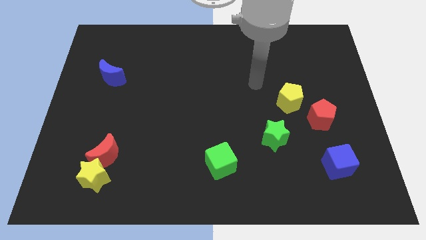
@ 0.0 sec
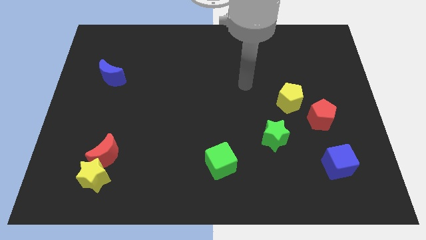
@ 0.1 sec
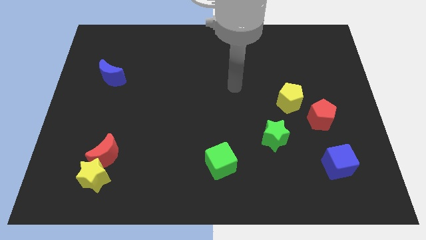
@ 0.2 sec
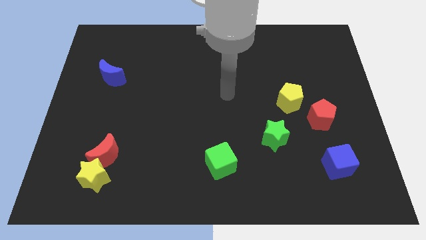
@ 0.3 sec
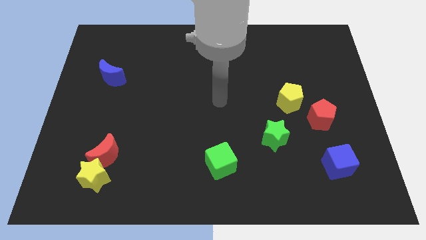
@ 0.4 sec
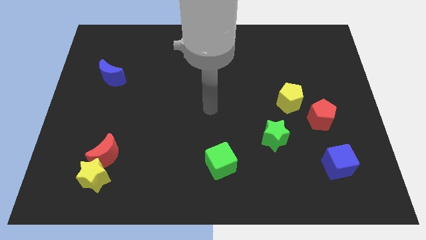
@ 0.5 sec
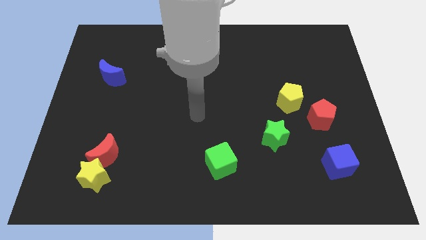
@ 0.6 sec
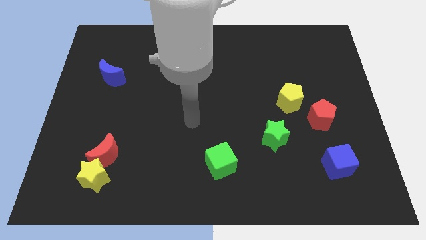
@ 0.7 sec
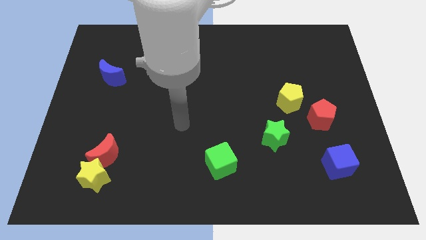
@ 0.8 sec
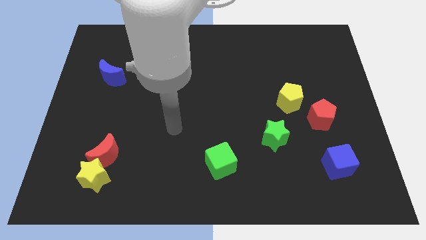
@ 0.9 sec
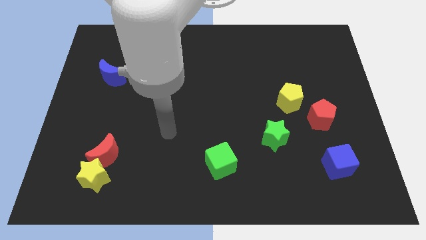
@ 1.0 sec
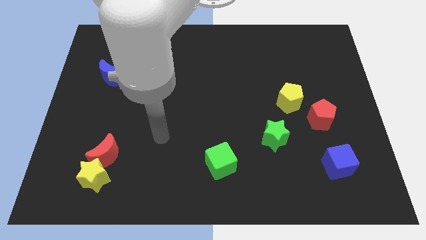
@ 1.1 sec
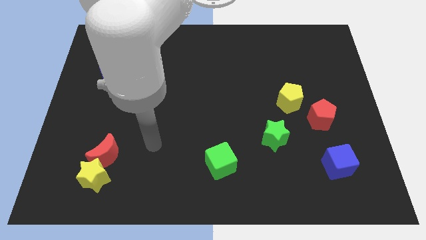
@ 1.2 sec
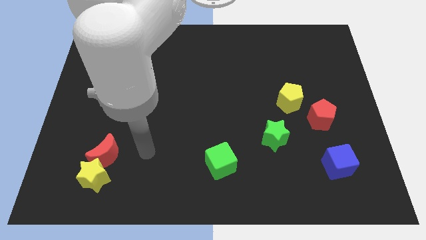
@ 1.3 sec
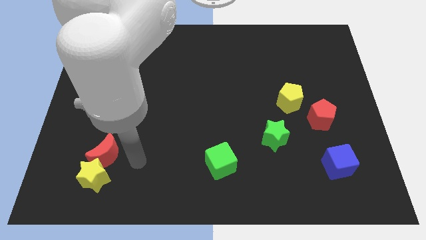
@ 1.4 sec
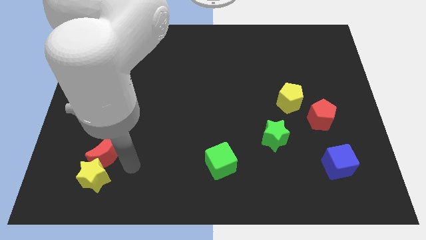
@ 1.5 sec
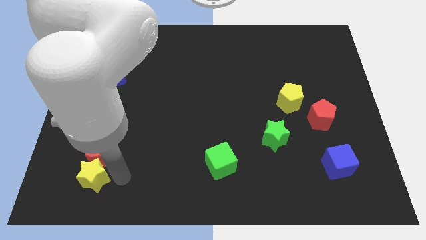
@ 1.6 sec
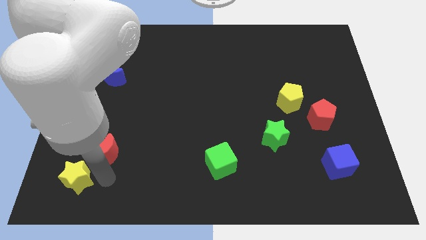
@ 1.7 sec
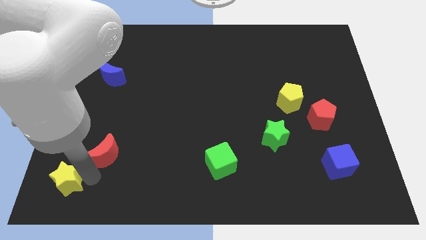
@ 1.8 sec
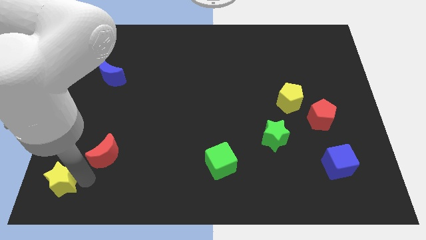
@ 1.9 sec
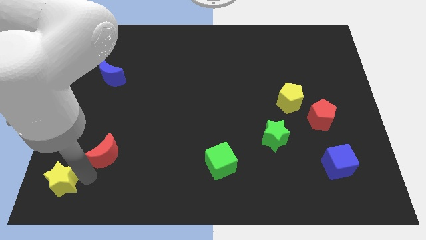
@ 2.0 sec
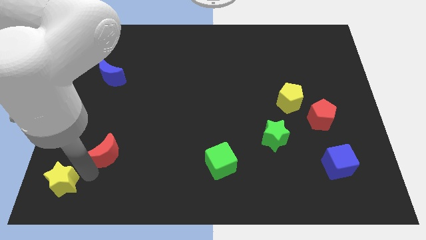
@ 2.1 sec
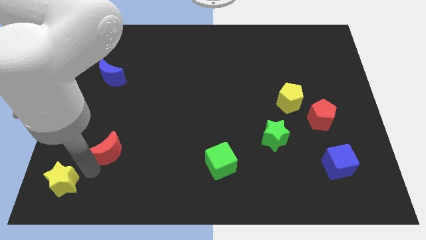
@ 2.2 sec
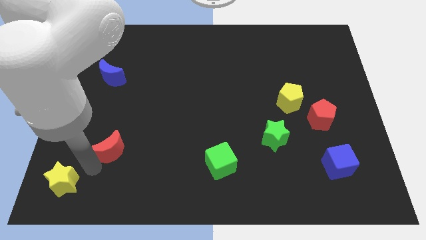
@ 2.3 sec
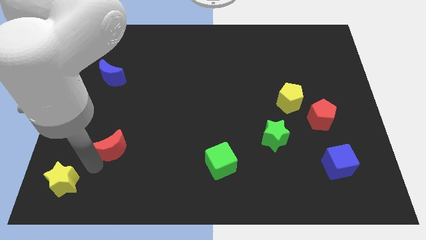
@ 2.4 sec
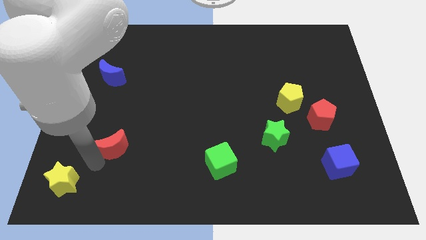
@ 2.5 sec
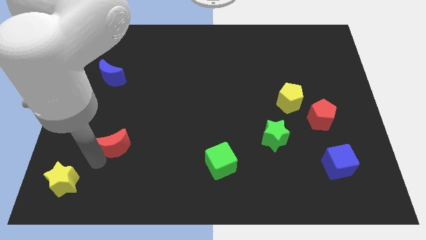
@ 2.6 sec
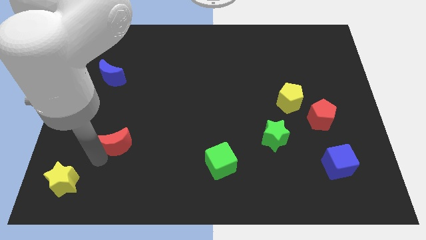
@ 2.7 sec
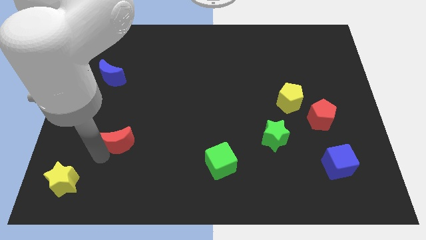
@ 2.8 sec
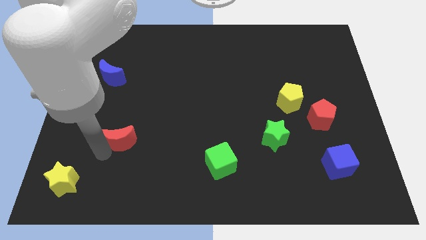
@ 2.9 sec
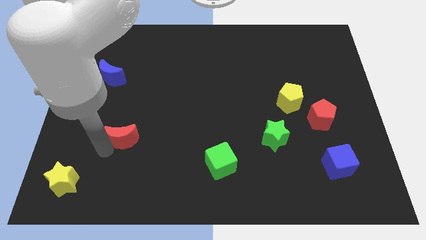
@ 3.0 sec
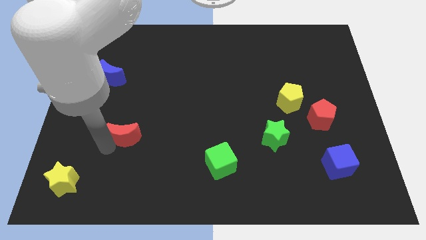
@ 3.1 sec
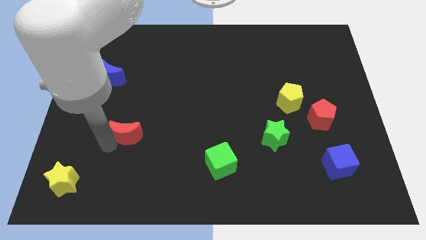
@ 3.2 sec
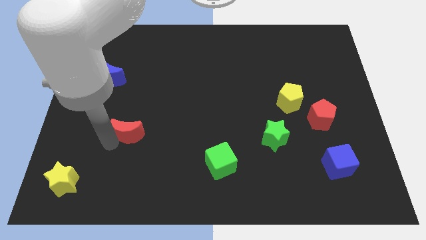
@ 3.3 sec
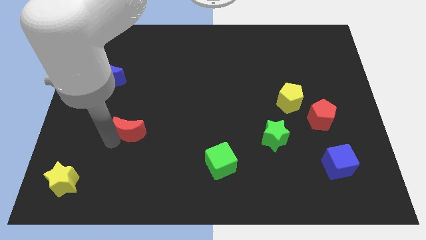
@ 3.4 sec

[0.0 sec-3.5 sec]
slide the red moon slightly diagonally upwards and to the right

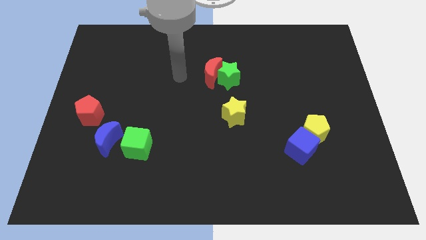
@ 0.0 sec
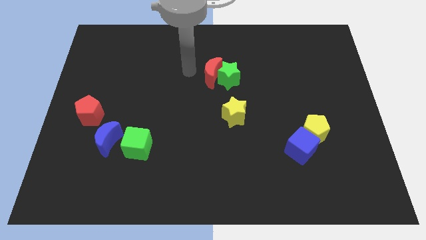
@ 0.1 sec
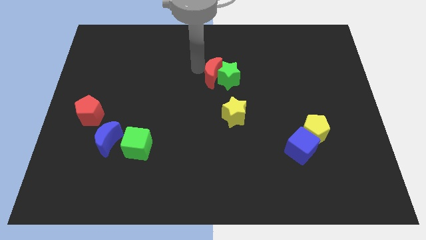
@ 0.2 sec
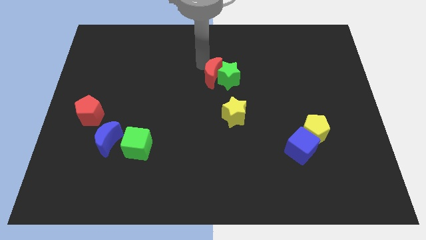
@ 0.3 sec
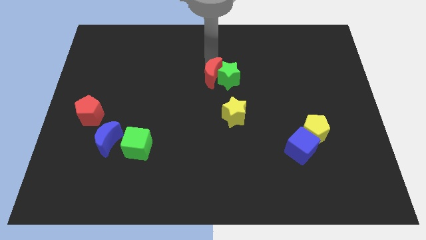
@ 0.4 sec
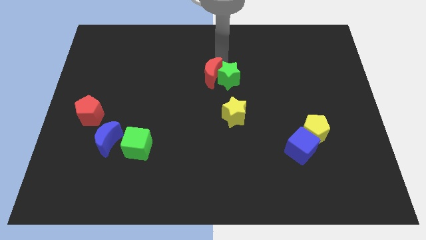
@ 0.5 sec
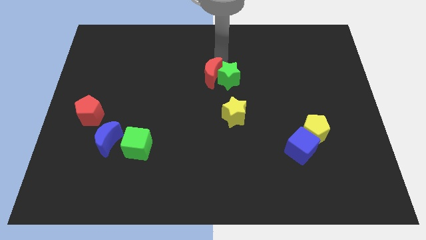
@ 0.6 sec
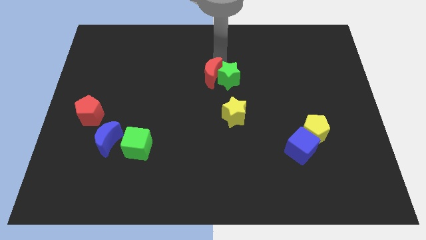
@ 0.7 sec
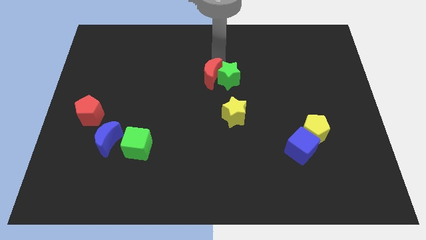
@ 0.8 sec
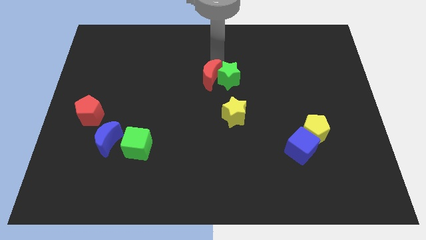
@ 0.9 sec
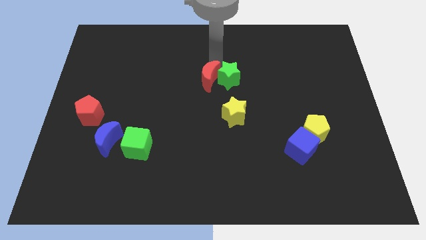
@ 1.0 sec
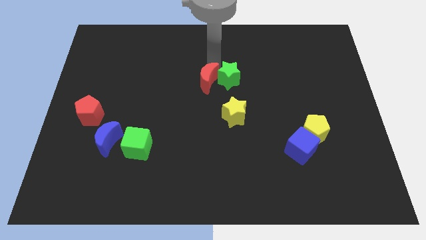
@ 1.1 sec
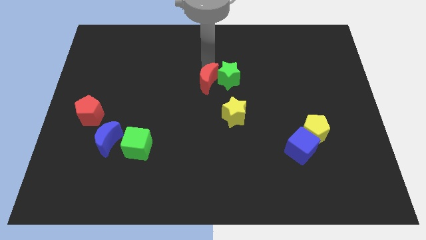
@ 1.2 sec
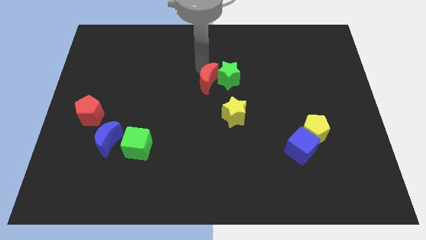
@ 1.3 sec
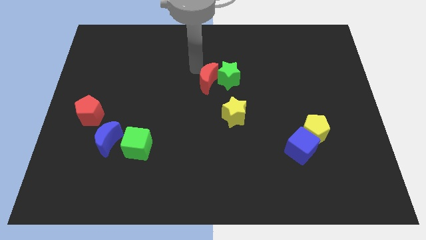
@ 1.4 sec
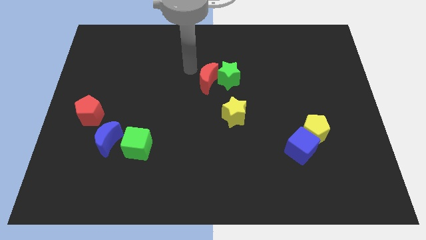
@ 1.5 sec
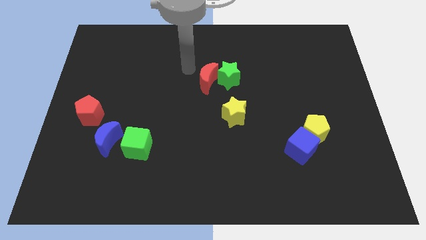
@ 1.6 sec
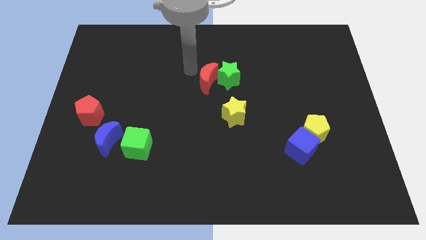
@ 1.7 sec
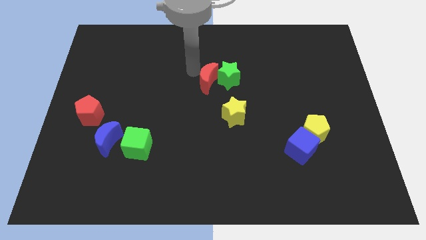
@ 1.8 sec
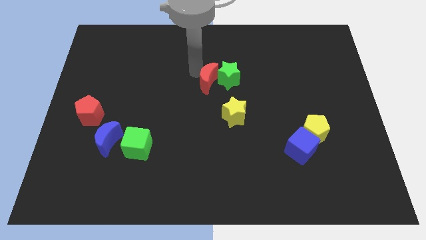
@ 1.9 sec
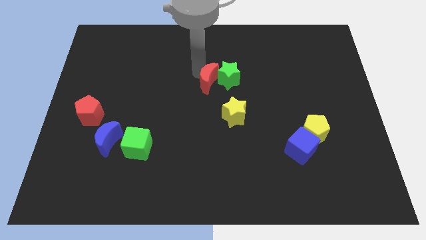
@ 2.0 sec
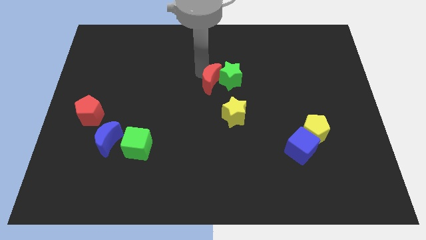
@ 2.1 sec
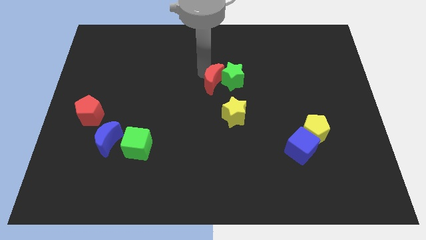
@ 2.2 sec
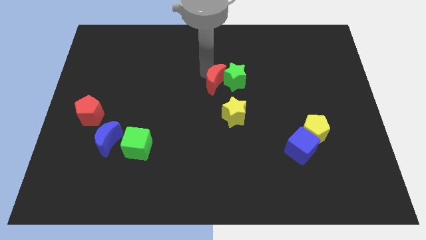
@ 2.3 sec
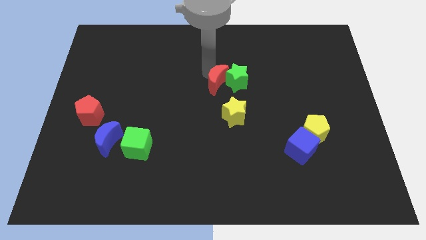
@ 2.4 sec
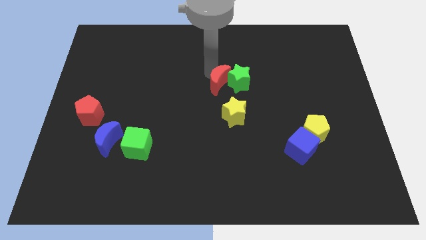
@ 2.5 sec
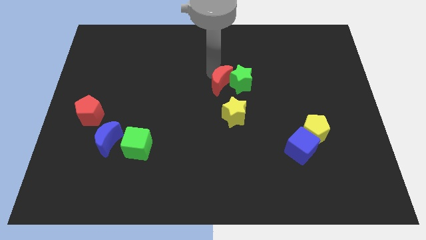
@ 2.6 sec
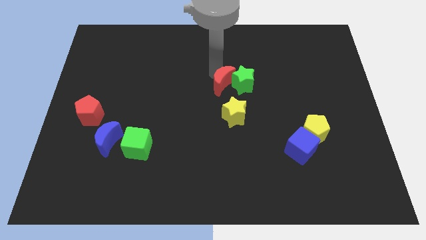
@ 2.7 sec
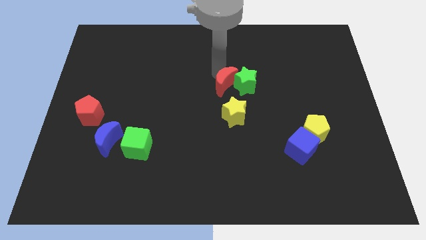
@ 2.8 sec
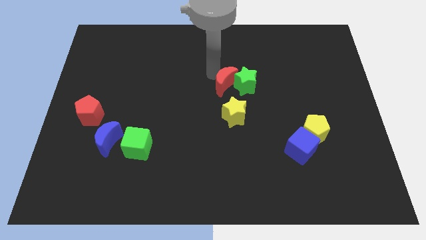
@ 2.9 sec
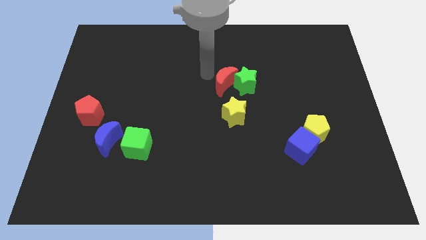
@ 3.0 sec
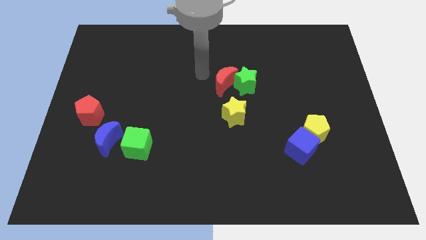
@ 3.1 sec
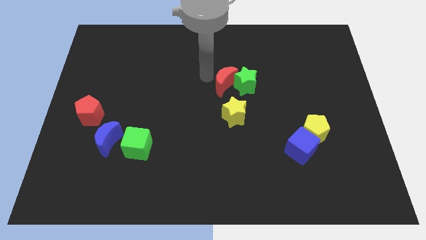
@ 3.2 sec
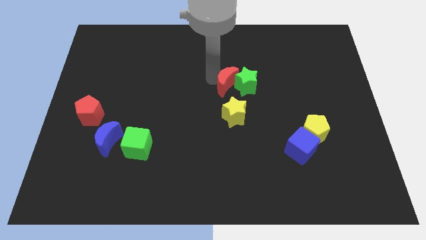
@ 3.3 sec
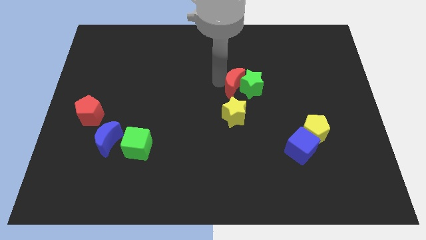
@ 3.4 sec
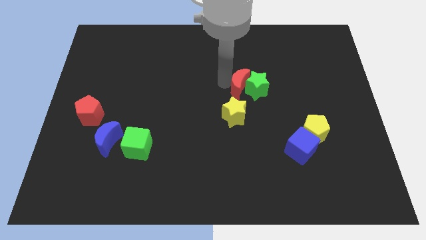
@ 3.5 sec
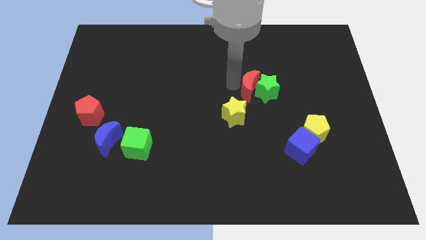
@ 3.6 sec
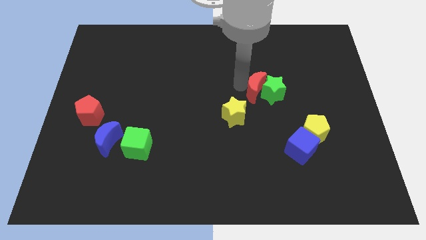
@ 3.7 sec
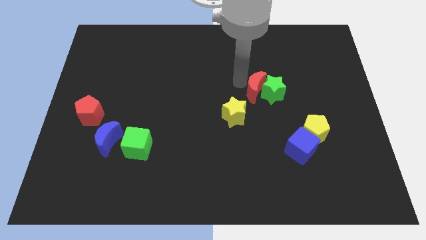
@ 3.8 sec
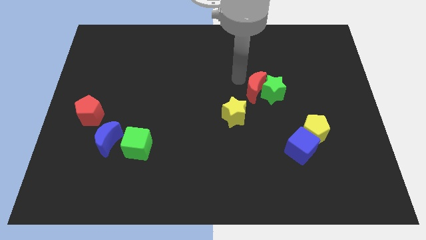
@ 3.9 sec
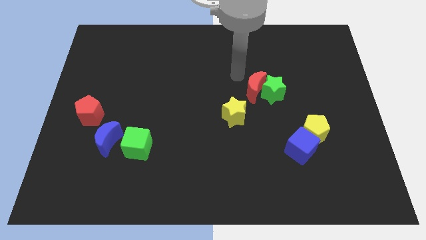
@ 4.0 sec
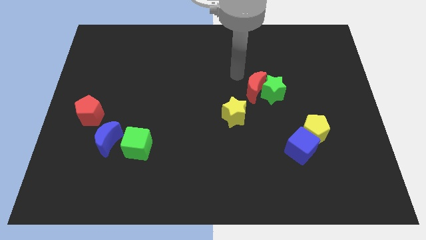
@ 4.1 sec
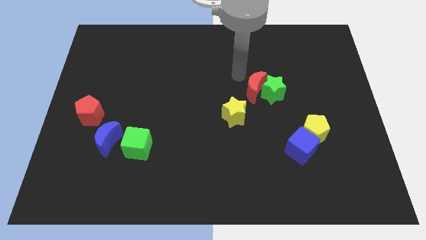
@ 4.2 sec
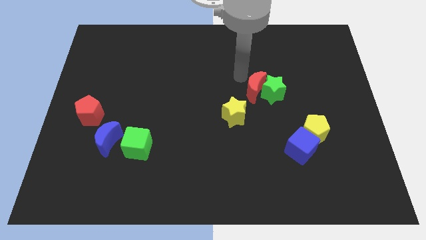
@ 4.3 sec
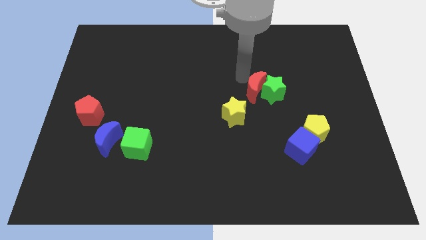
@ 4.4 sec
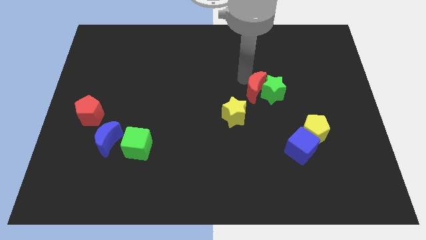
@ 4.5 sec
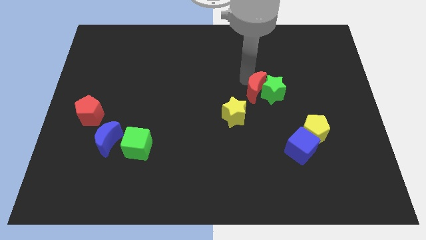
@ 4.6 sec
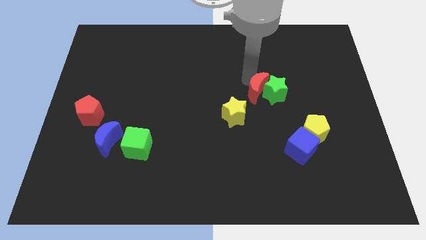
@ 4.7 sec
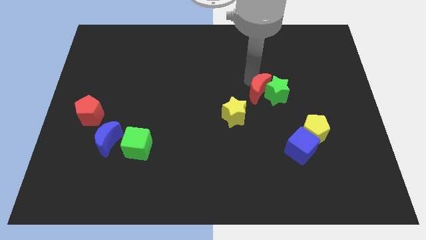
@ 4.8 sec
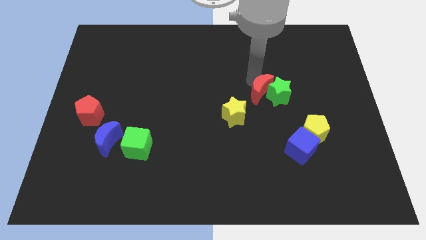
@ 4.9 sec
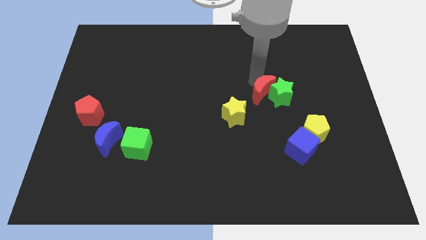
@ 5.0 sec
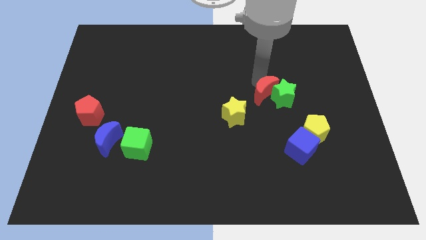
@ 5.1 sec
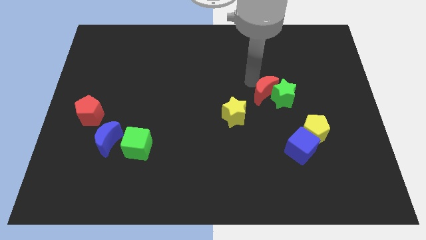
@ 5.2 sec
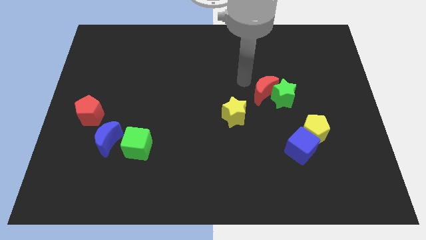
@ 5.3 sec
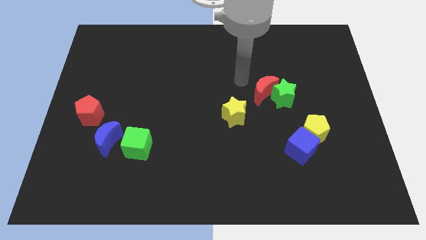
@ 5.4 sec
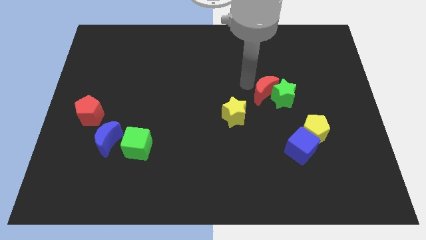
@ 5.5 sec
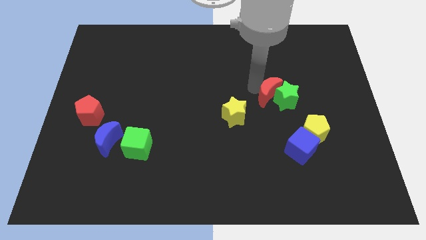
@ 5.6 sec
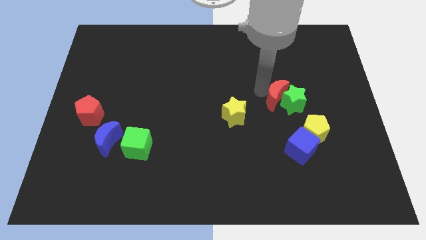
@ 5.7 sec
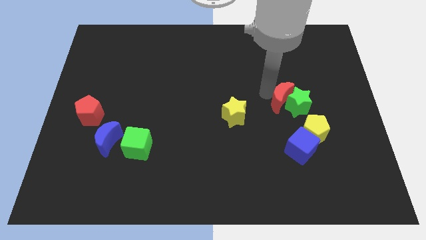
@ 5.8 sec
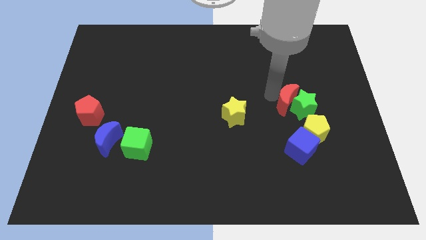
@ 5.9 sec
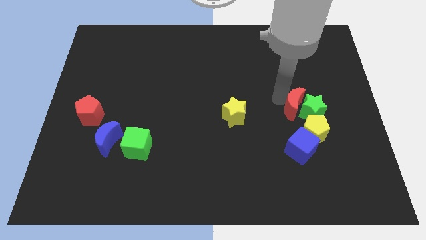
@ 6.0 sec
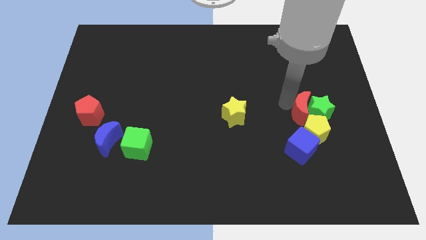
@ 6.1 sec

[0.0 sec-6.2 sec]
push the red moon down and right diagonally
